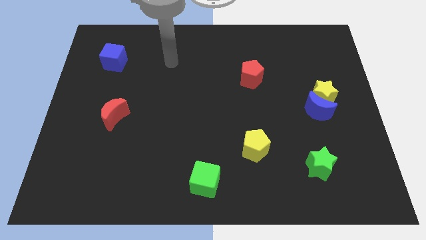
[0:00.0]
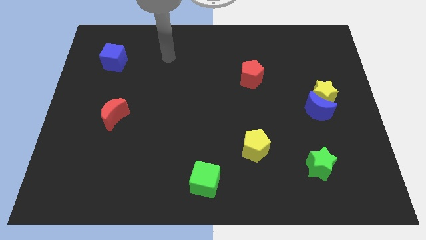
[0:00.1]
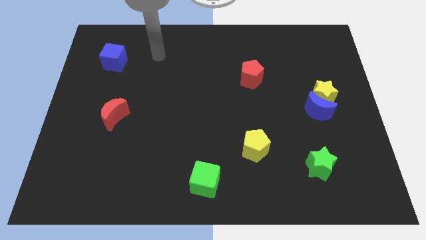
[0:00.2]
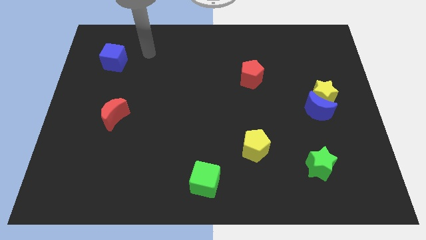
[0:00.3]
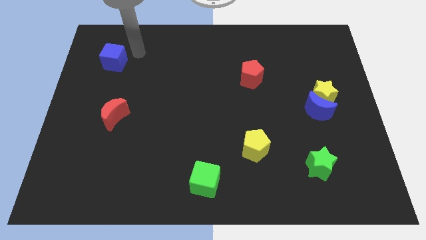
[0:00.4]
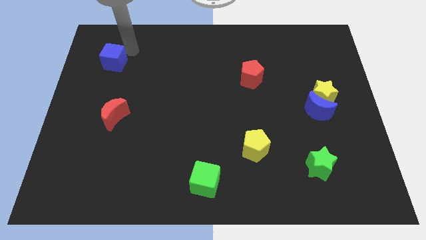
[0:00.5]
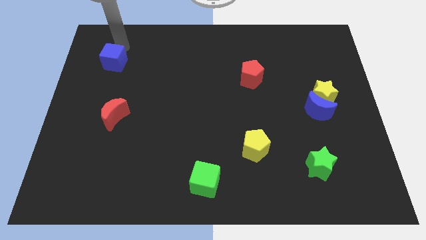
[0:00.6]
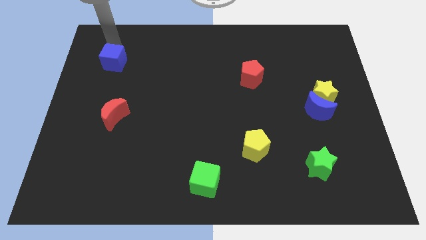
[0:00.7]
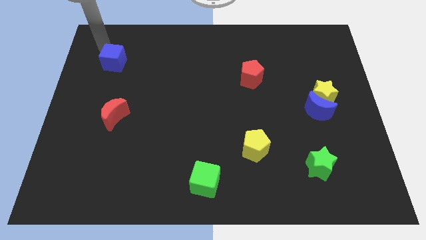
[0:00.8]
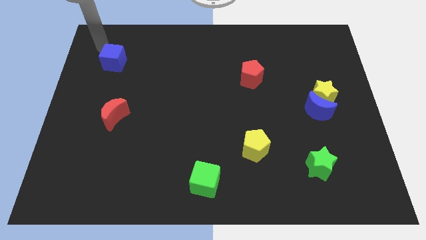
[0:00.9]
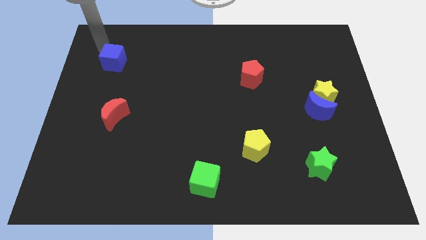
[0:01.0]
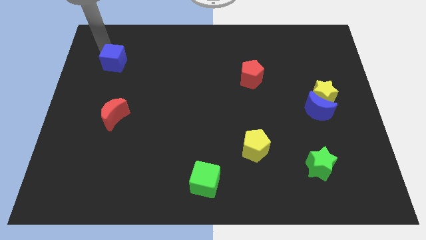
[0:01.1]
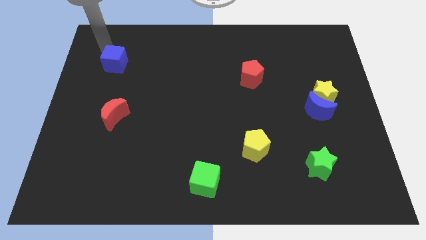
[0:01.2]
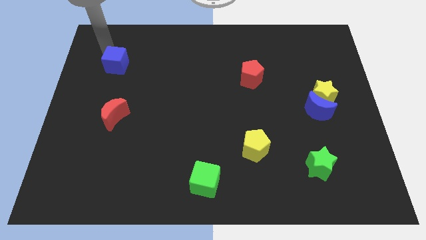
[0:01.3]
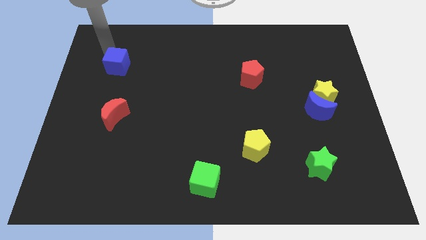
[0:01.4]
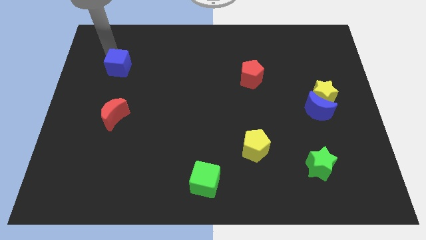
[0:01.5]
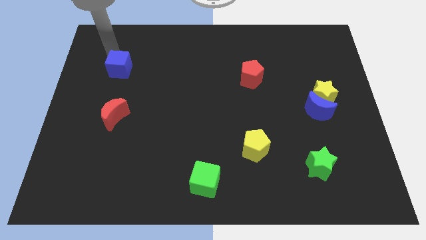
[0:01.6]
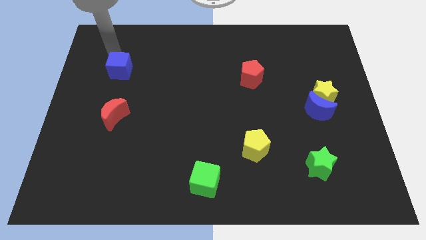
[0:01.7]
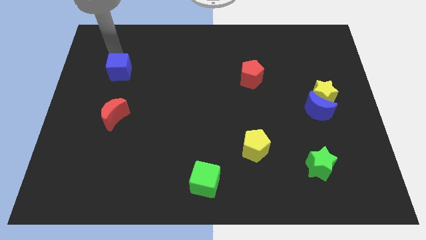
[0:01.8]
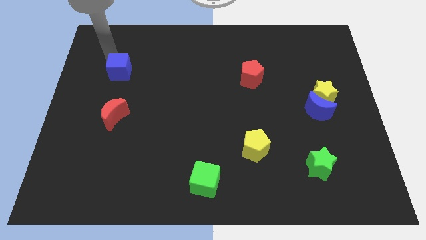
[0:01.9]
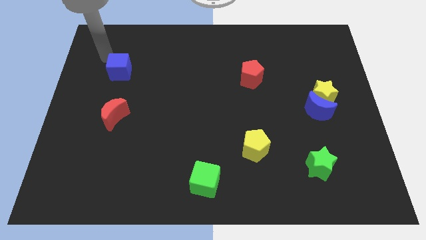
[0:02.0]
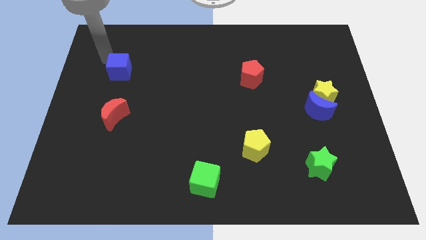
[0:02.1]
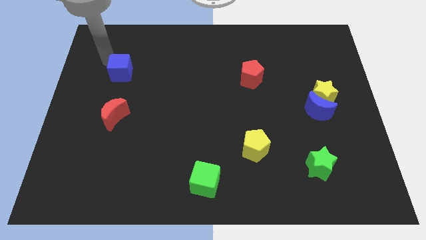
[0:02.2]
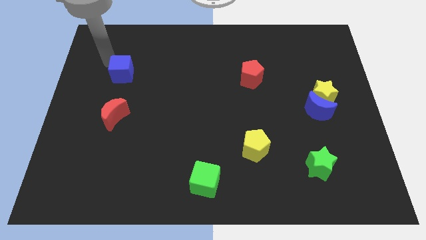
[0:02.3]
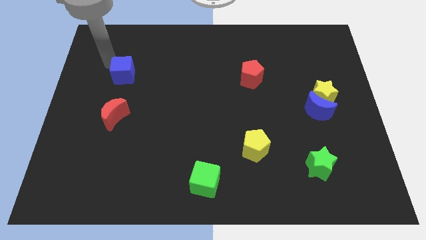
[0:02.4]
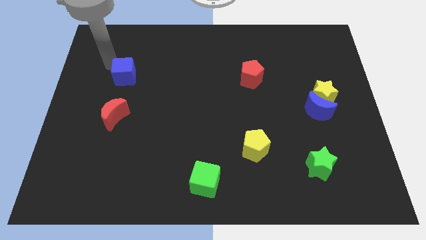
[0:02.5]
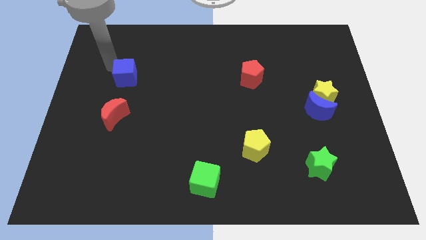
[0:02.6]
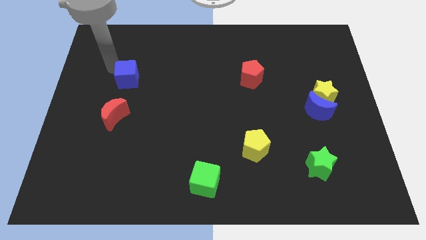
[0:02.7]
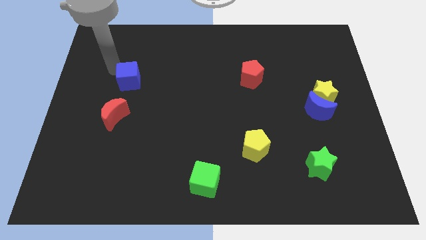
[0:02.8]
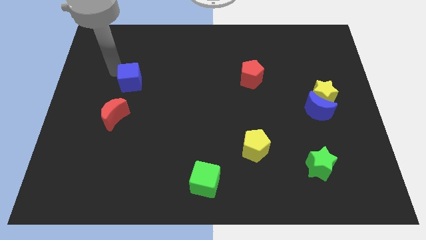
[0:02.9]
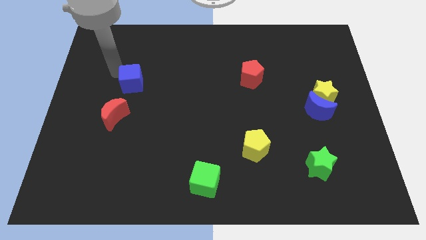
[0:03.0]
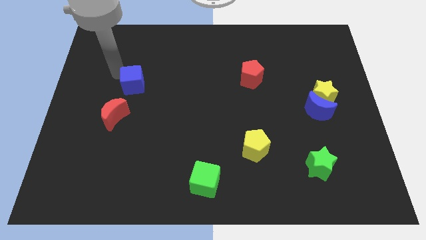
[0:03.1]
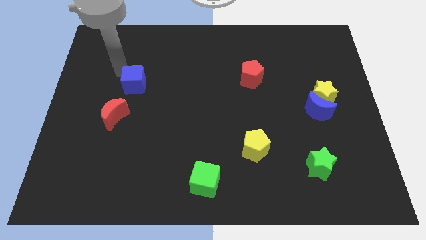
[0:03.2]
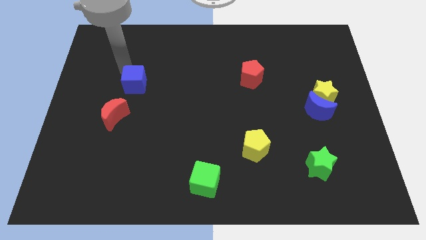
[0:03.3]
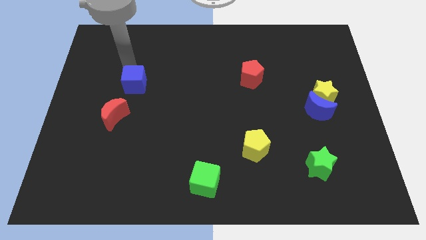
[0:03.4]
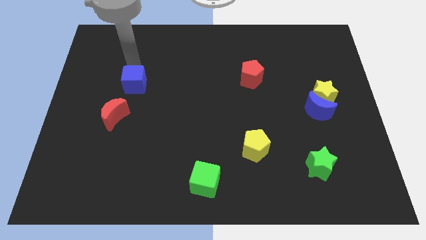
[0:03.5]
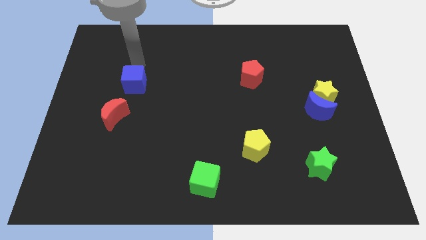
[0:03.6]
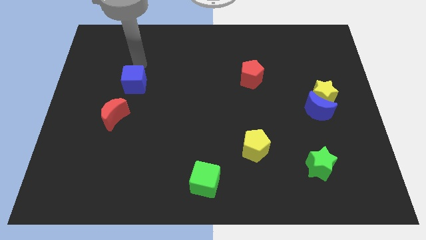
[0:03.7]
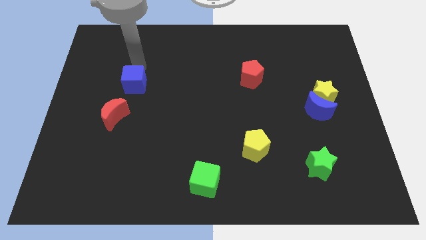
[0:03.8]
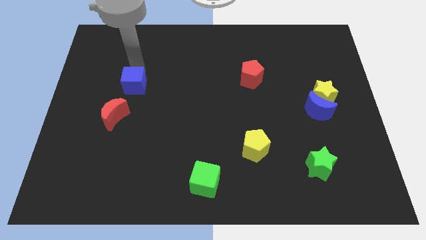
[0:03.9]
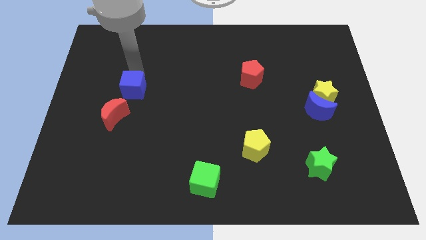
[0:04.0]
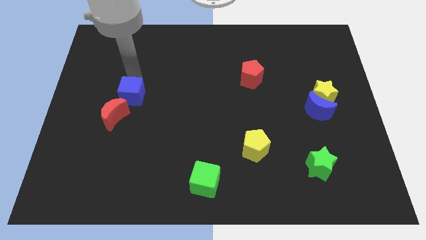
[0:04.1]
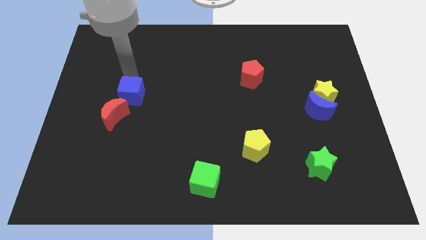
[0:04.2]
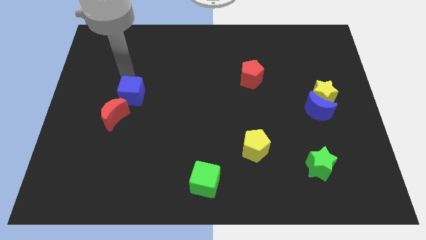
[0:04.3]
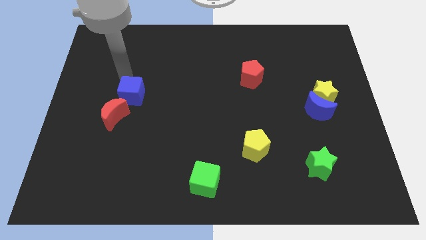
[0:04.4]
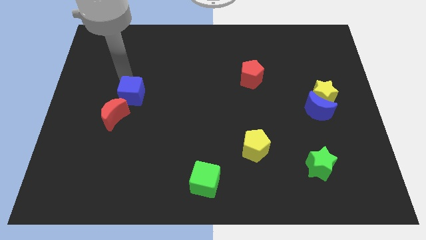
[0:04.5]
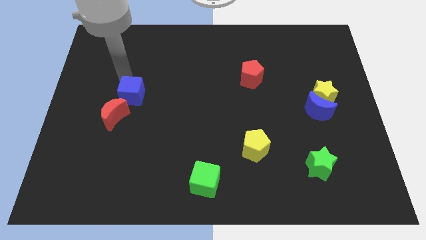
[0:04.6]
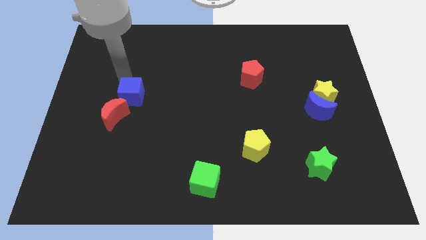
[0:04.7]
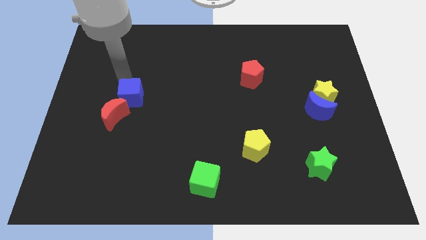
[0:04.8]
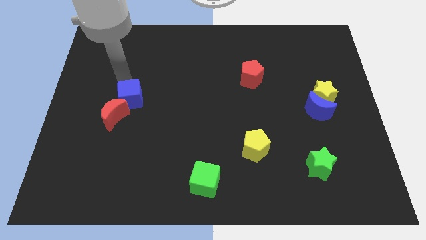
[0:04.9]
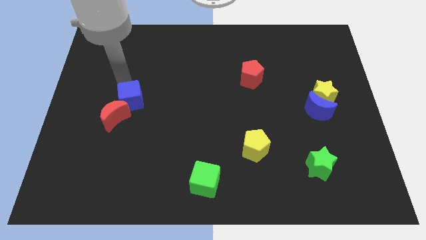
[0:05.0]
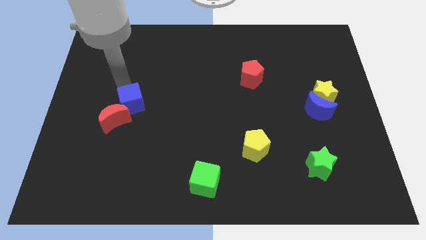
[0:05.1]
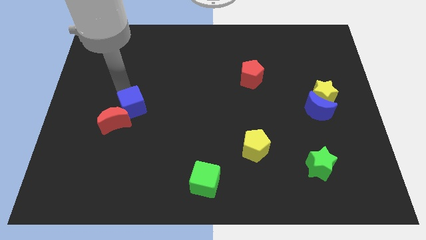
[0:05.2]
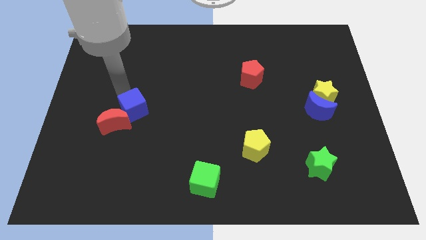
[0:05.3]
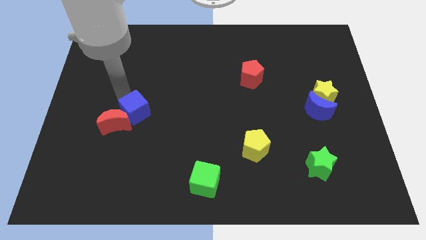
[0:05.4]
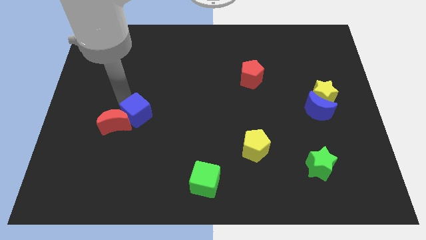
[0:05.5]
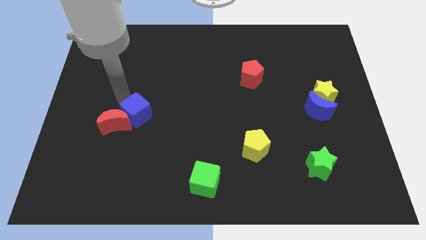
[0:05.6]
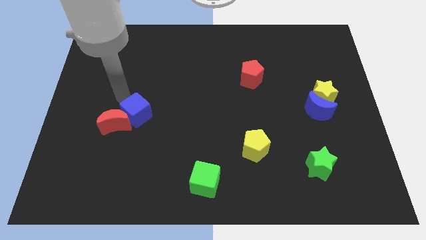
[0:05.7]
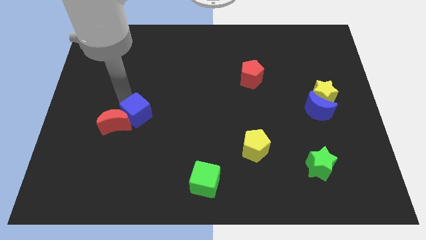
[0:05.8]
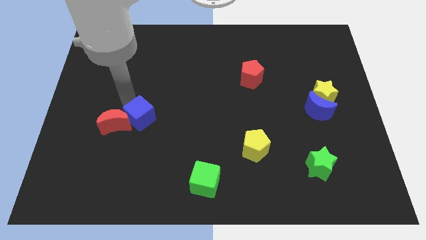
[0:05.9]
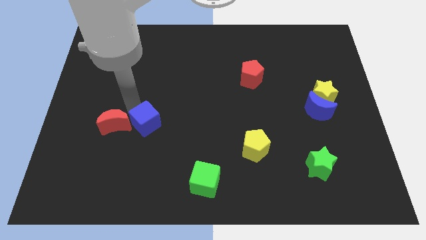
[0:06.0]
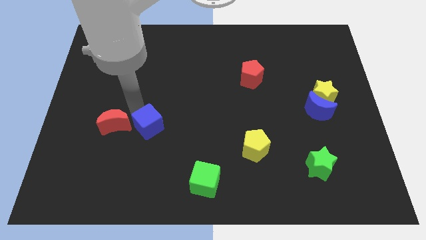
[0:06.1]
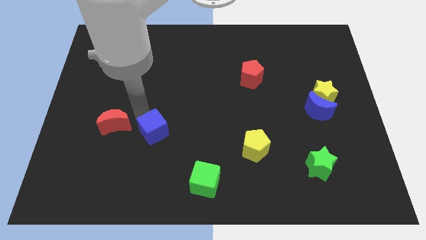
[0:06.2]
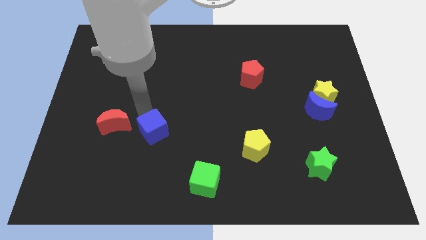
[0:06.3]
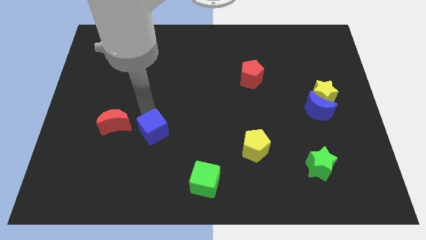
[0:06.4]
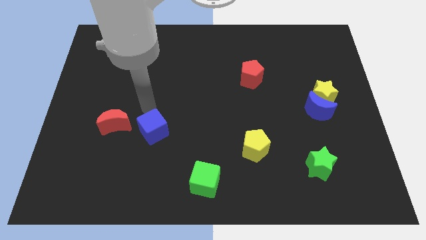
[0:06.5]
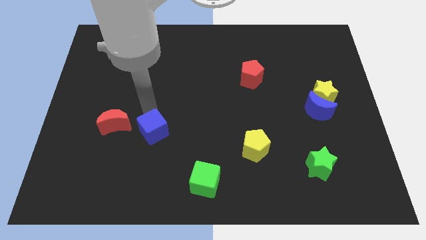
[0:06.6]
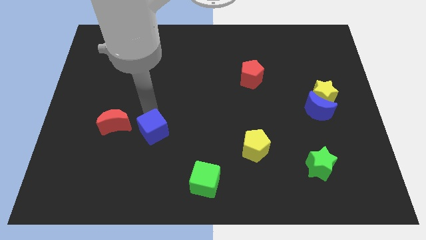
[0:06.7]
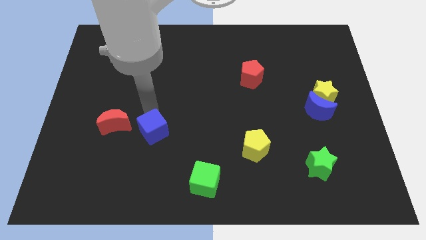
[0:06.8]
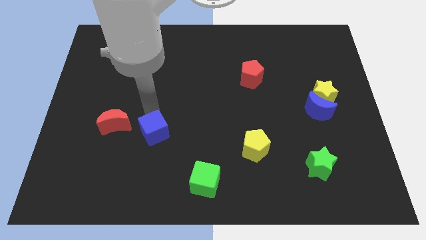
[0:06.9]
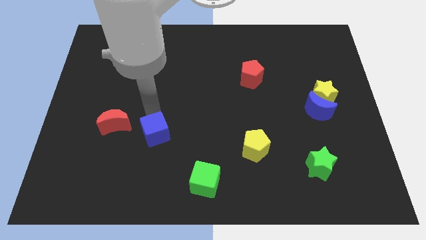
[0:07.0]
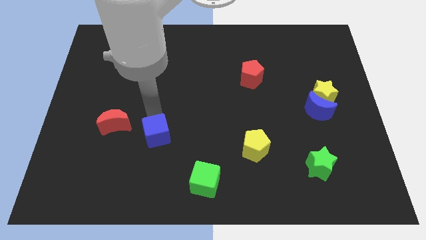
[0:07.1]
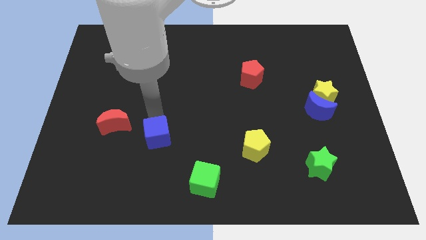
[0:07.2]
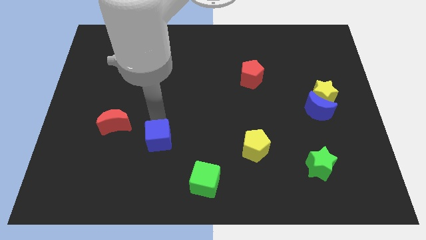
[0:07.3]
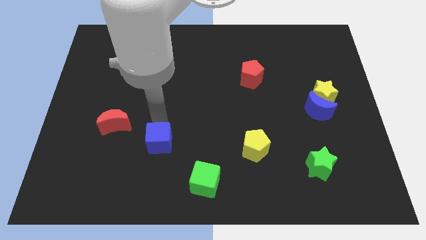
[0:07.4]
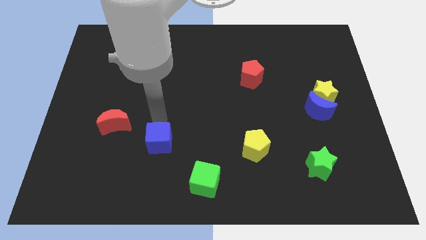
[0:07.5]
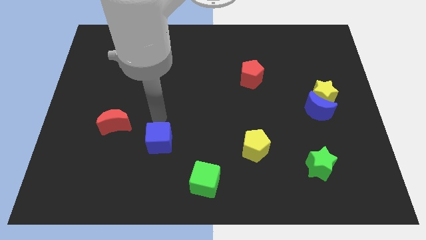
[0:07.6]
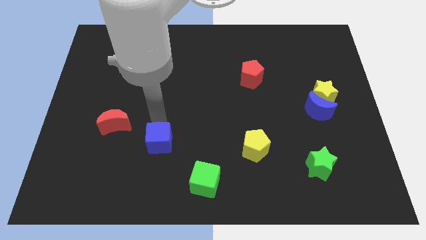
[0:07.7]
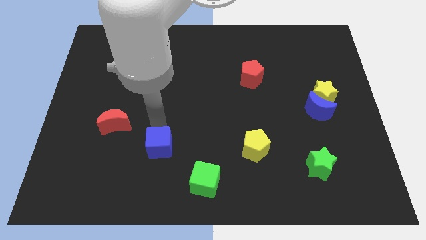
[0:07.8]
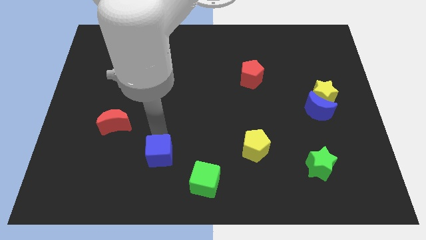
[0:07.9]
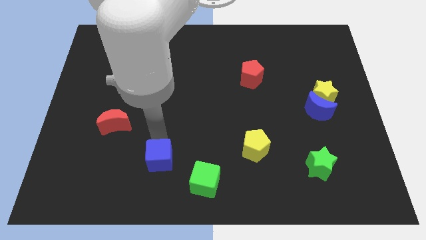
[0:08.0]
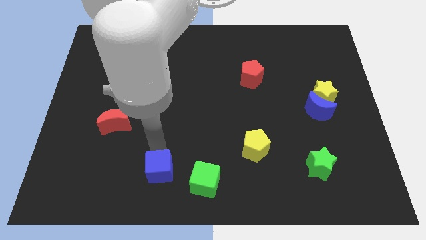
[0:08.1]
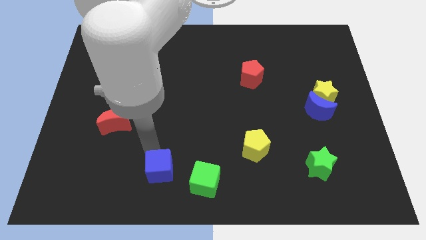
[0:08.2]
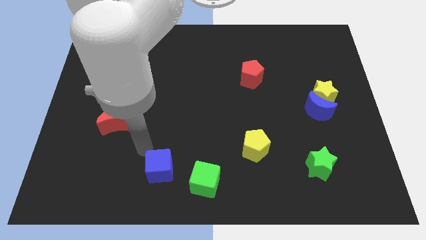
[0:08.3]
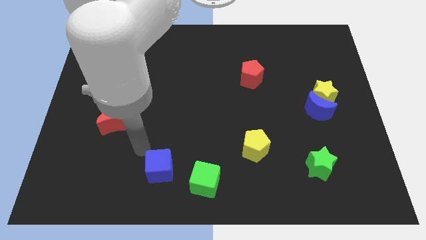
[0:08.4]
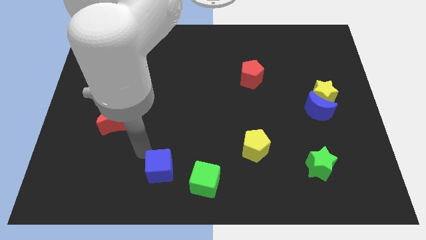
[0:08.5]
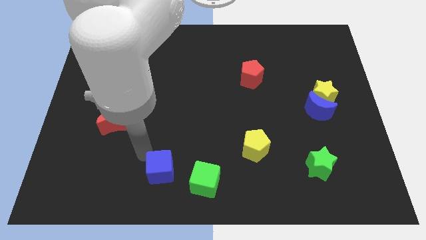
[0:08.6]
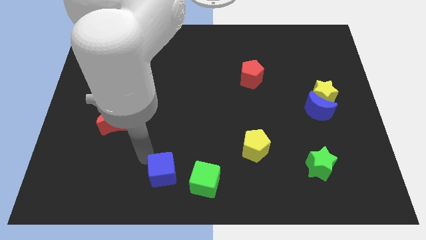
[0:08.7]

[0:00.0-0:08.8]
move the blue cube to the bottom
